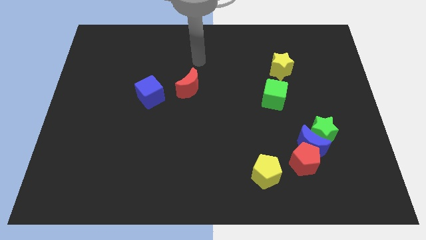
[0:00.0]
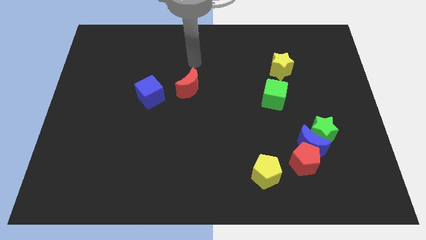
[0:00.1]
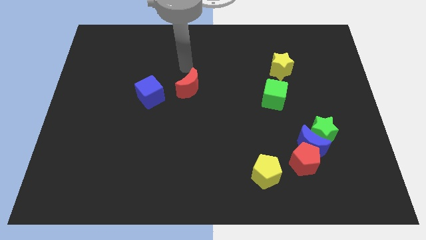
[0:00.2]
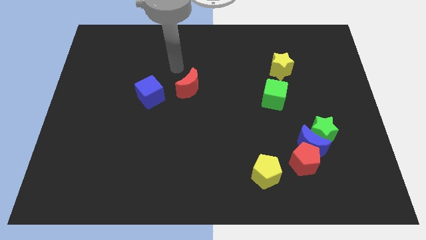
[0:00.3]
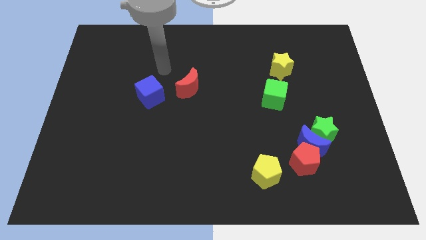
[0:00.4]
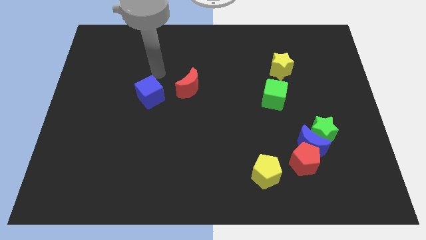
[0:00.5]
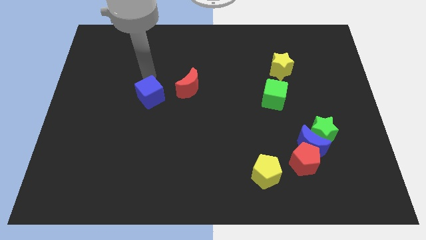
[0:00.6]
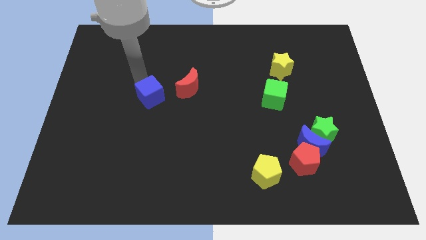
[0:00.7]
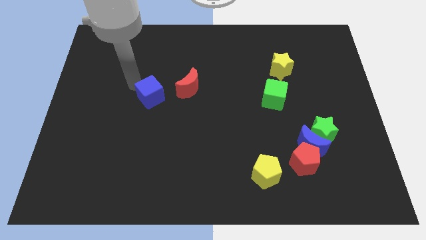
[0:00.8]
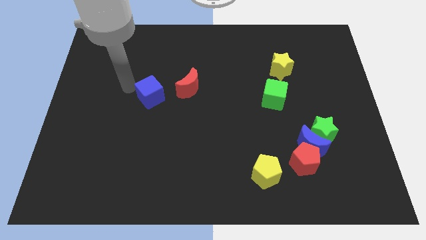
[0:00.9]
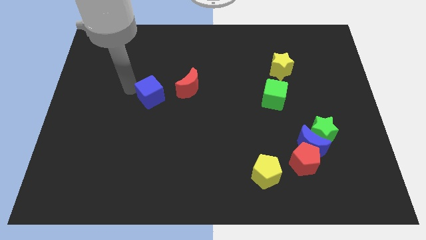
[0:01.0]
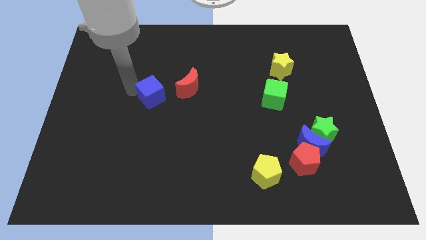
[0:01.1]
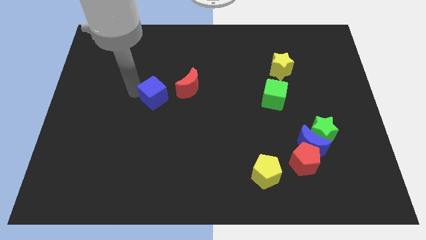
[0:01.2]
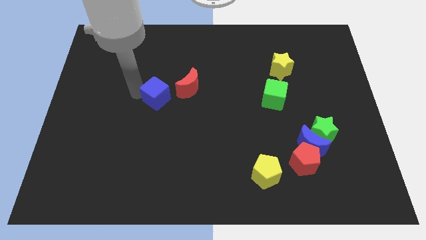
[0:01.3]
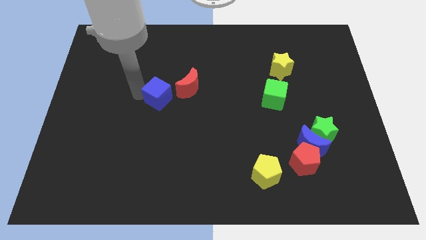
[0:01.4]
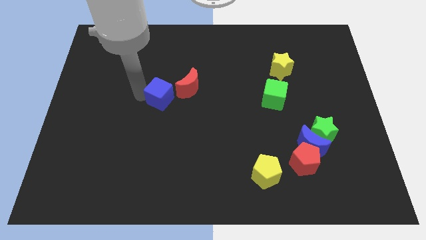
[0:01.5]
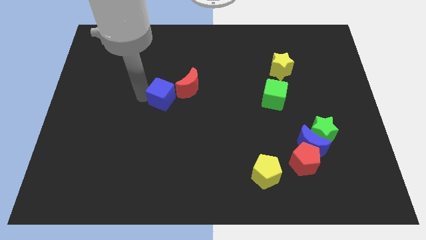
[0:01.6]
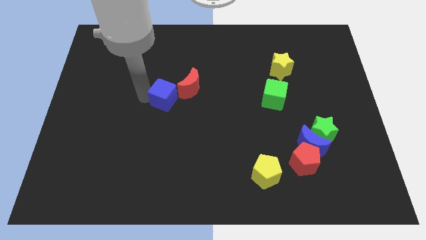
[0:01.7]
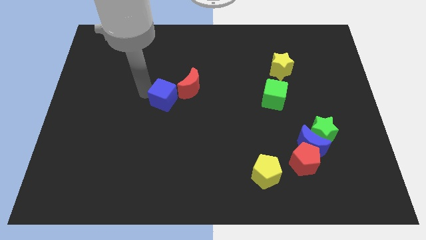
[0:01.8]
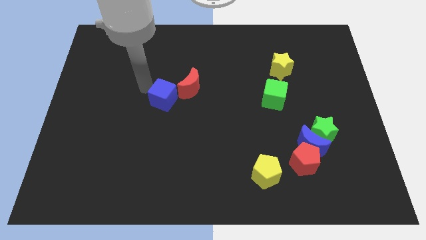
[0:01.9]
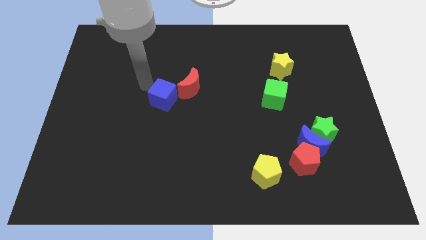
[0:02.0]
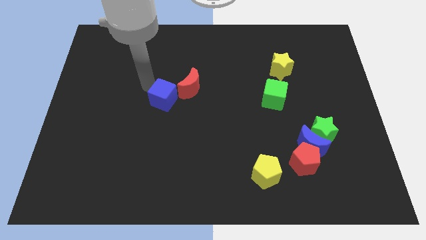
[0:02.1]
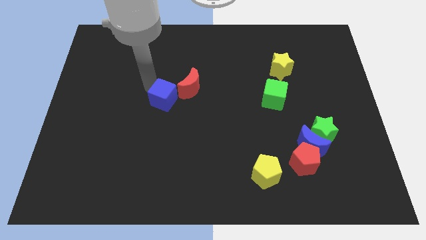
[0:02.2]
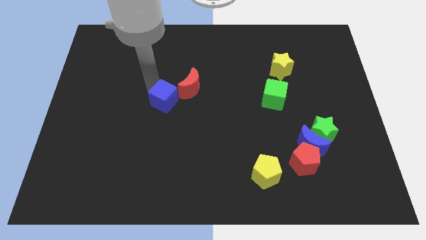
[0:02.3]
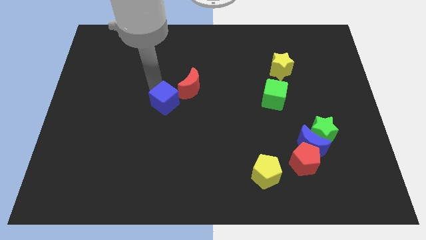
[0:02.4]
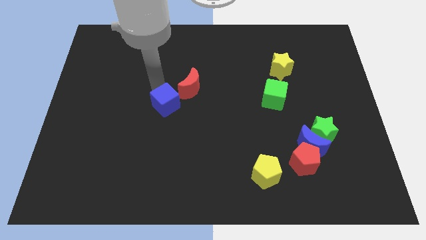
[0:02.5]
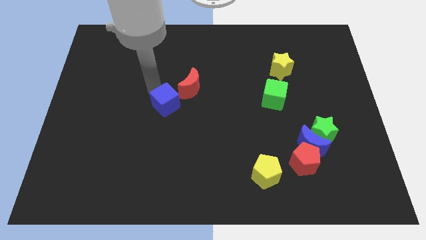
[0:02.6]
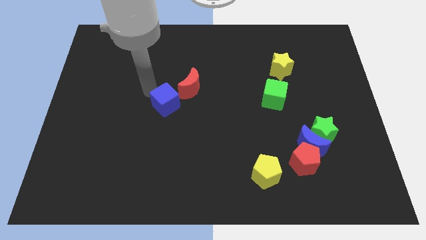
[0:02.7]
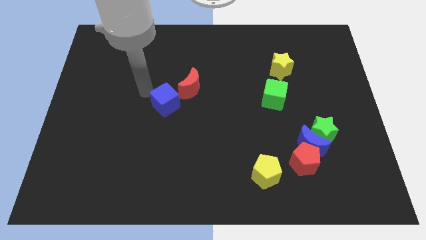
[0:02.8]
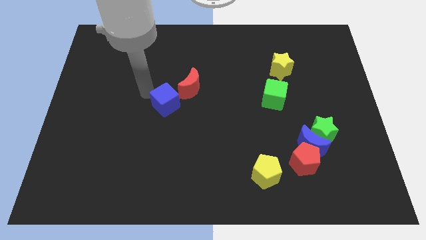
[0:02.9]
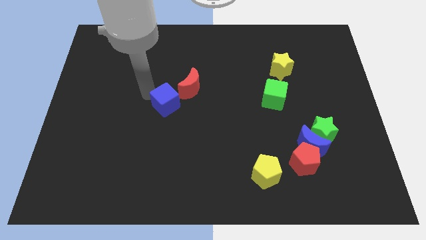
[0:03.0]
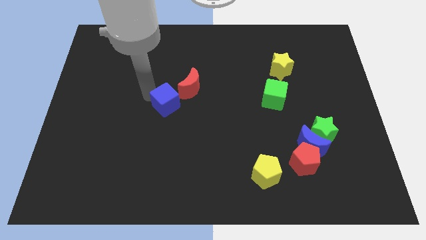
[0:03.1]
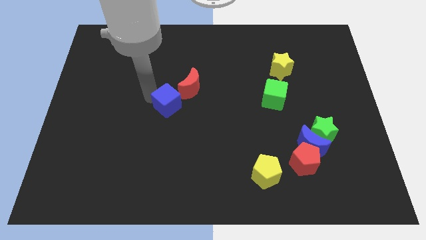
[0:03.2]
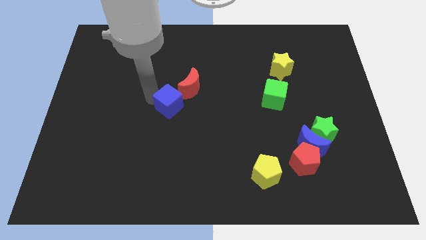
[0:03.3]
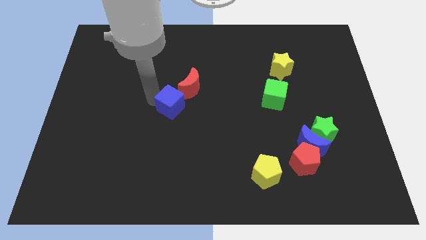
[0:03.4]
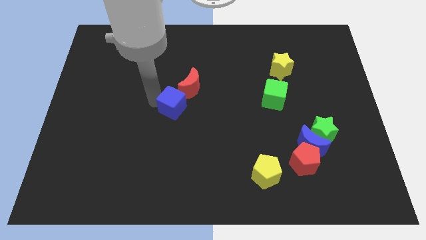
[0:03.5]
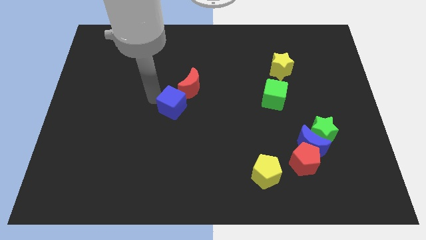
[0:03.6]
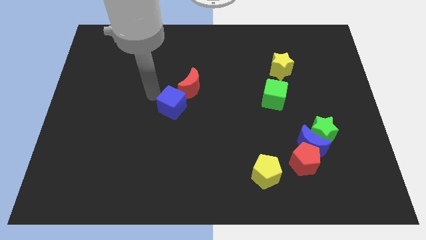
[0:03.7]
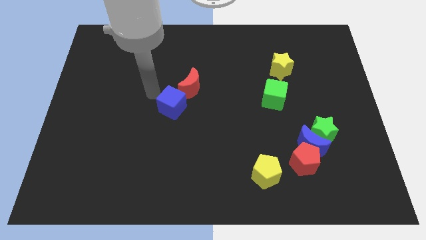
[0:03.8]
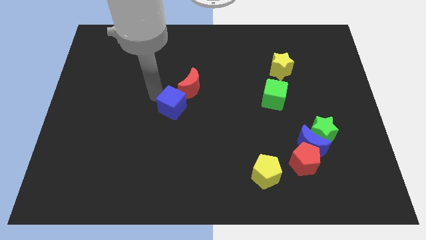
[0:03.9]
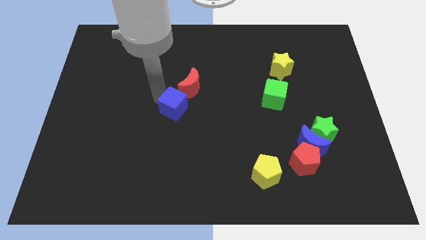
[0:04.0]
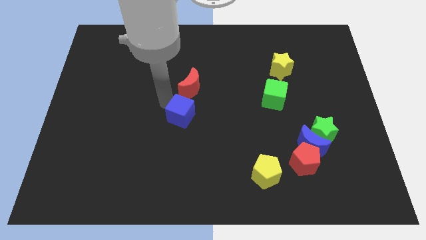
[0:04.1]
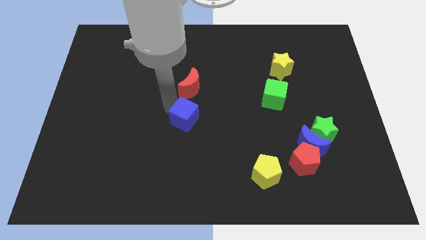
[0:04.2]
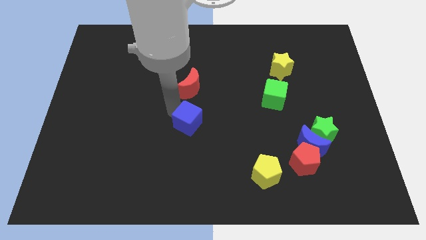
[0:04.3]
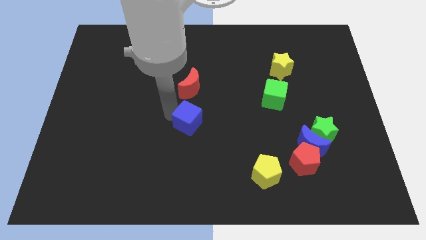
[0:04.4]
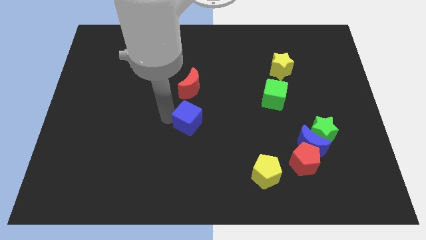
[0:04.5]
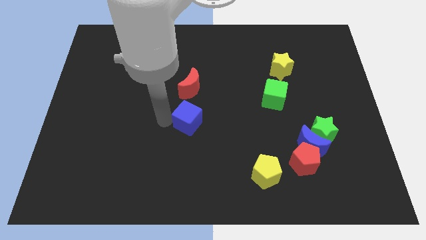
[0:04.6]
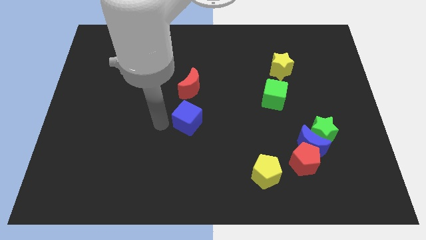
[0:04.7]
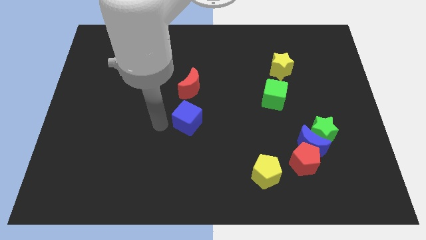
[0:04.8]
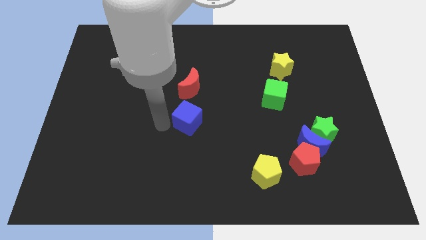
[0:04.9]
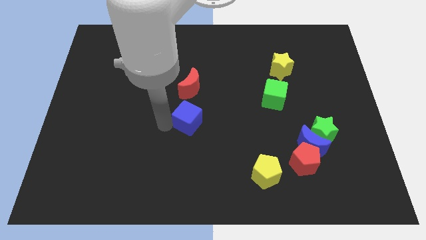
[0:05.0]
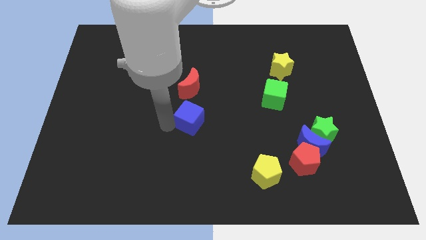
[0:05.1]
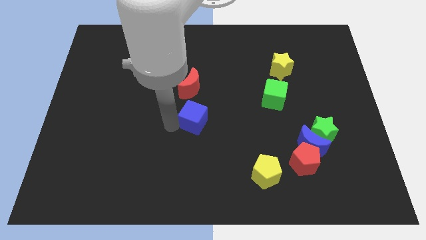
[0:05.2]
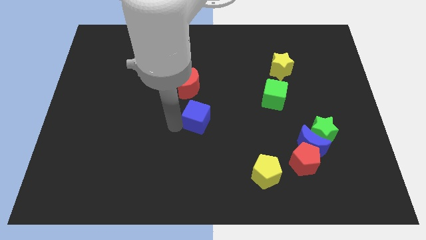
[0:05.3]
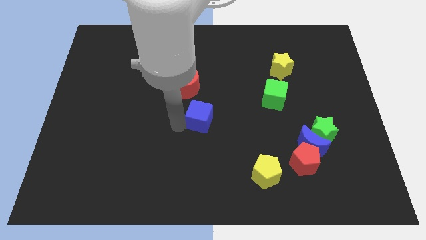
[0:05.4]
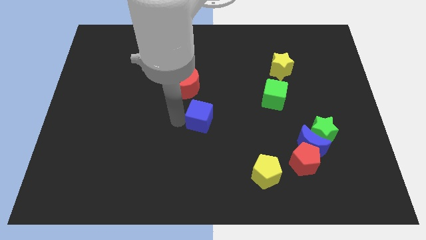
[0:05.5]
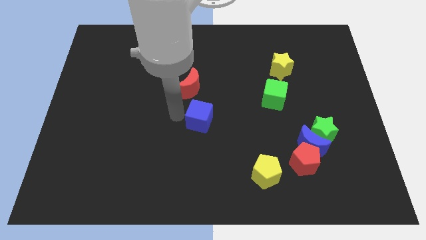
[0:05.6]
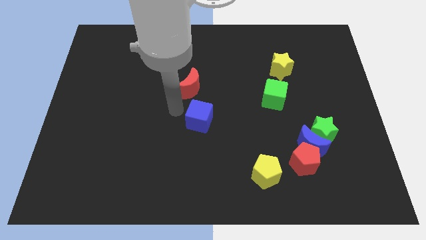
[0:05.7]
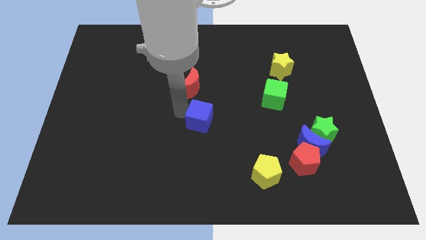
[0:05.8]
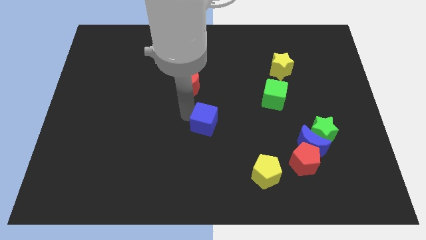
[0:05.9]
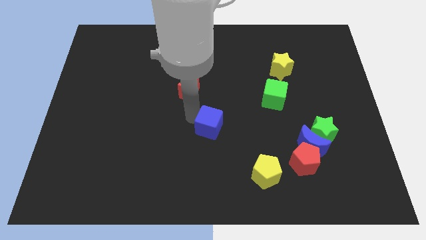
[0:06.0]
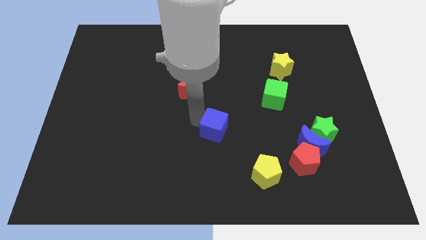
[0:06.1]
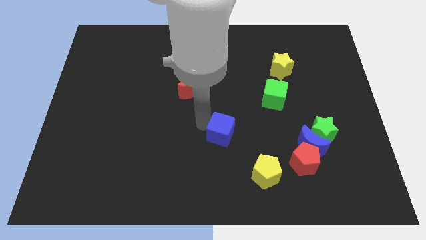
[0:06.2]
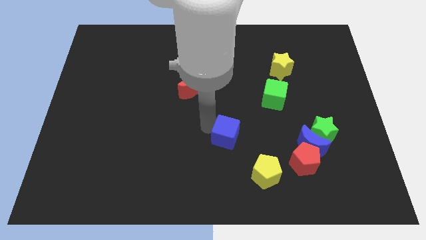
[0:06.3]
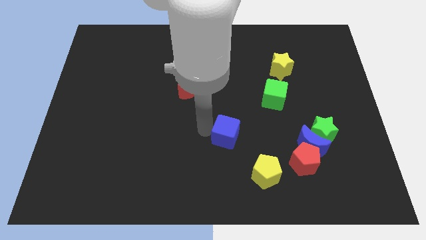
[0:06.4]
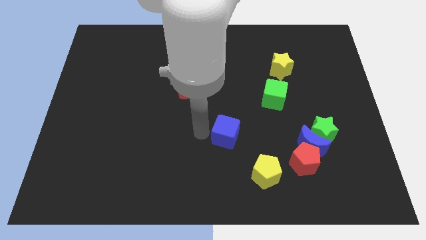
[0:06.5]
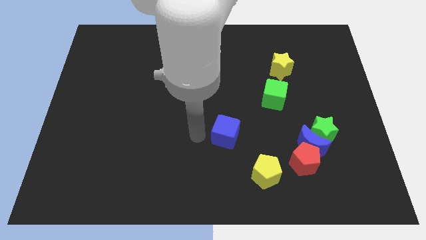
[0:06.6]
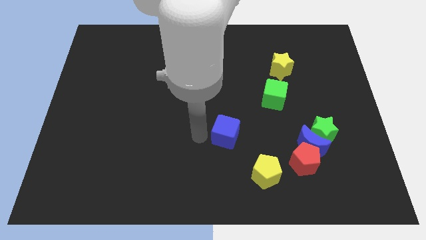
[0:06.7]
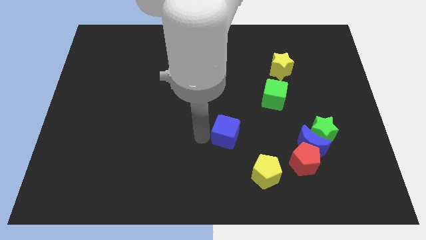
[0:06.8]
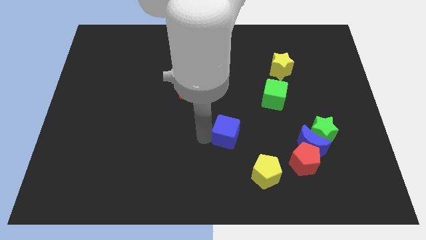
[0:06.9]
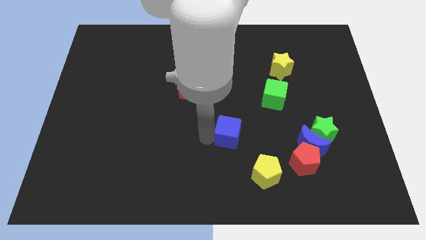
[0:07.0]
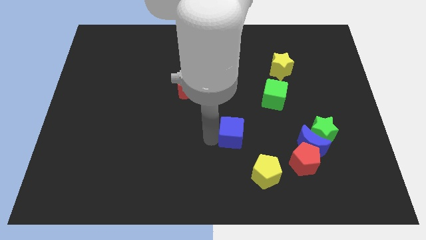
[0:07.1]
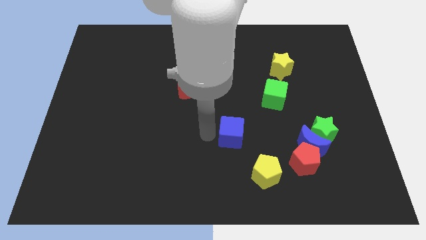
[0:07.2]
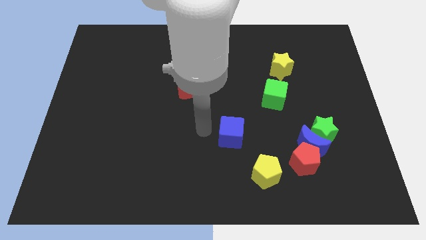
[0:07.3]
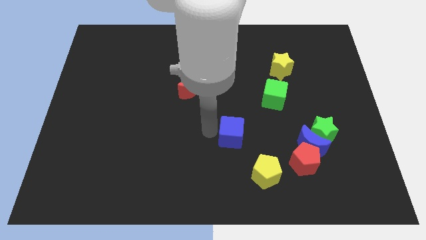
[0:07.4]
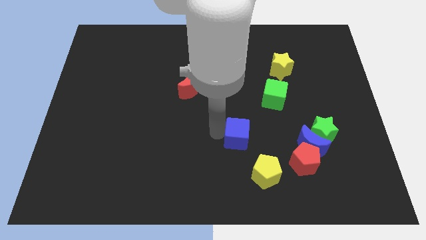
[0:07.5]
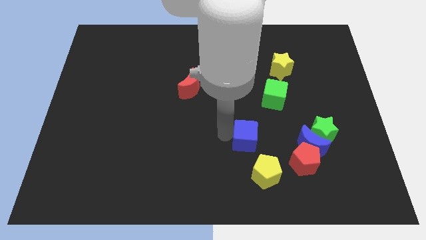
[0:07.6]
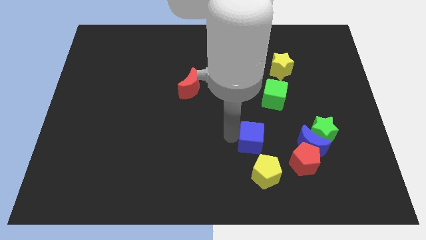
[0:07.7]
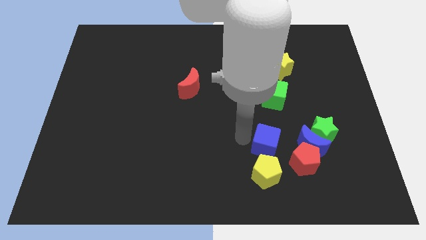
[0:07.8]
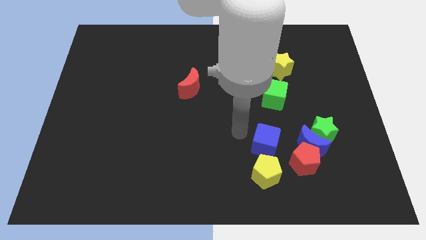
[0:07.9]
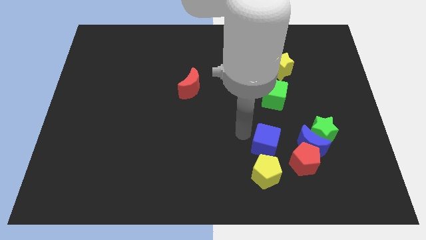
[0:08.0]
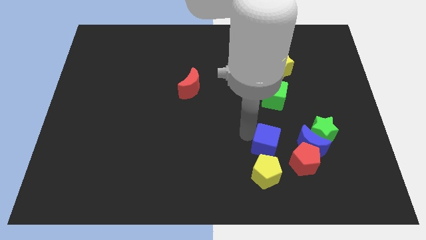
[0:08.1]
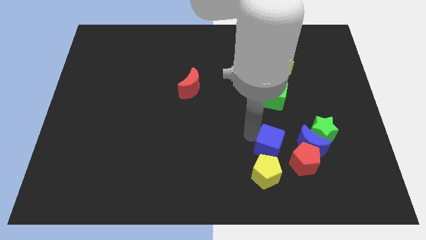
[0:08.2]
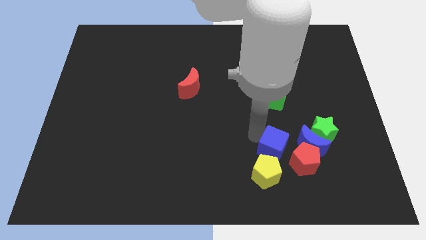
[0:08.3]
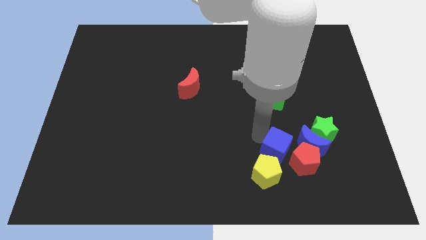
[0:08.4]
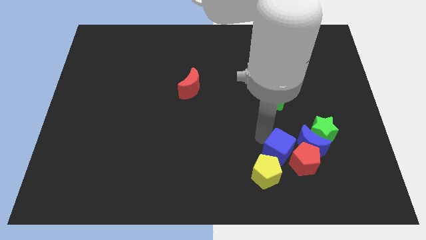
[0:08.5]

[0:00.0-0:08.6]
put the blue cube close to the red pentagon
